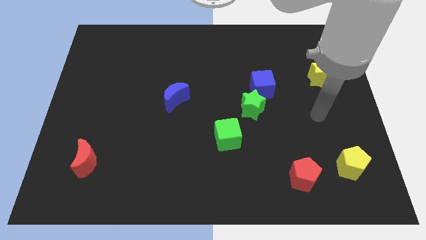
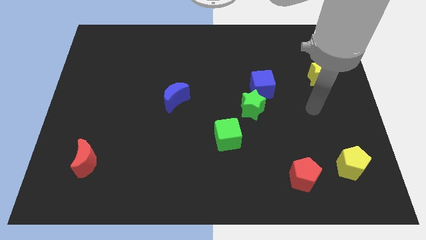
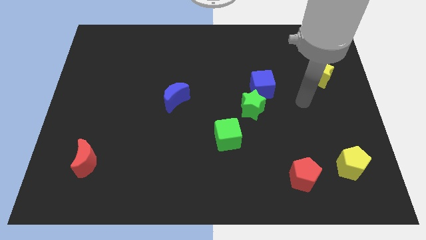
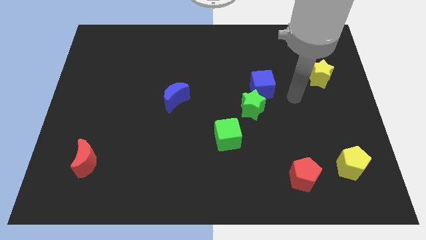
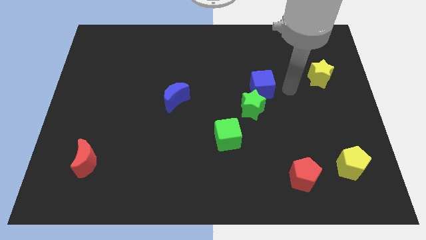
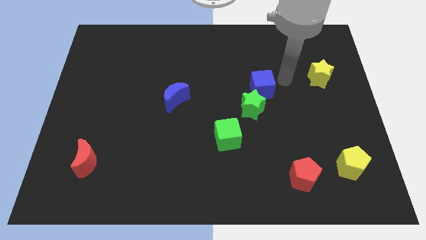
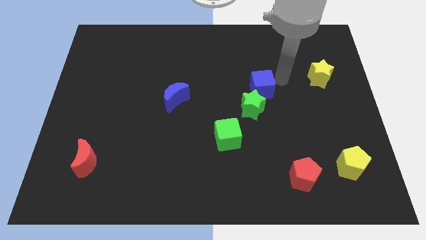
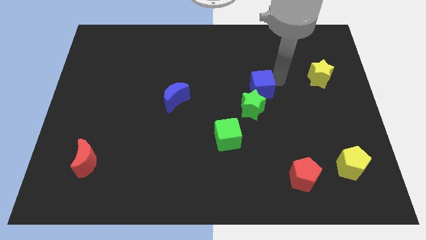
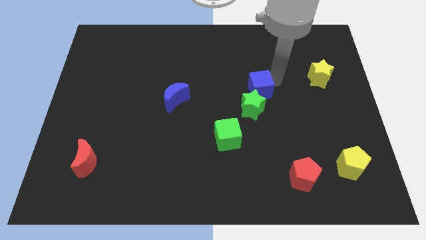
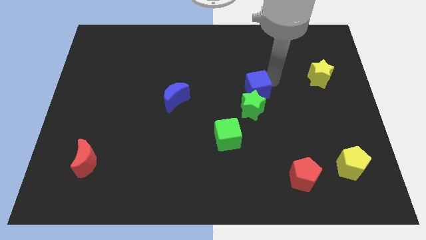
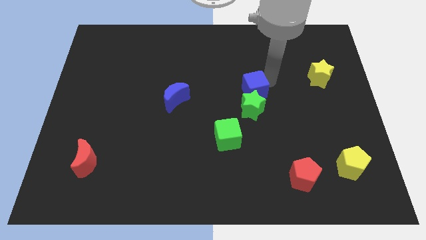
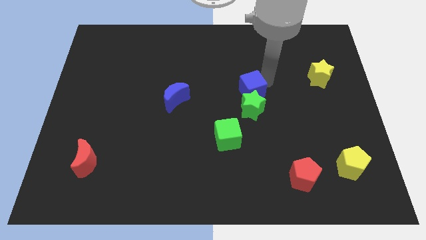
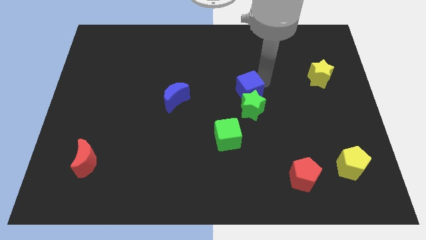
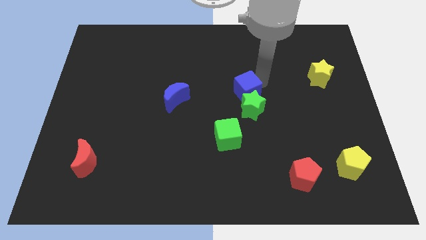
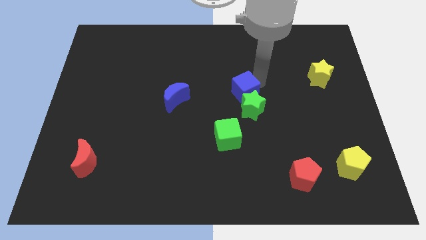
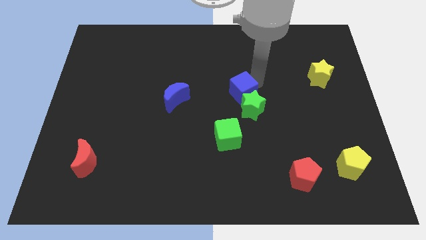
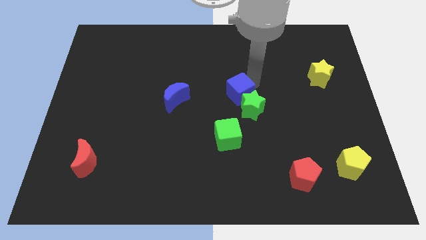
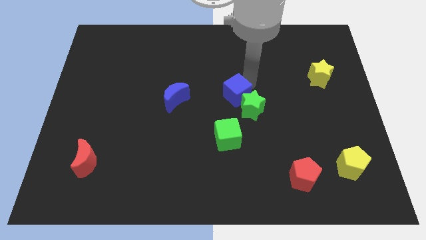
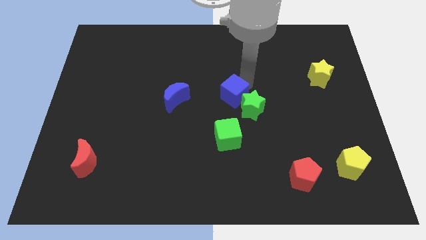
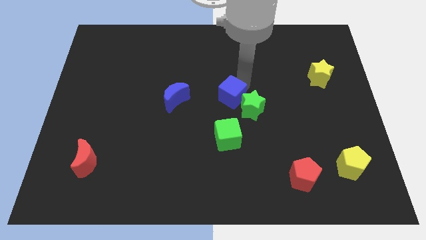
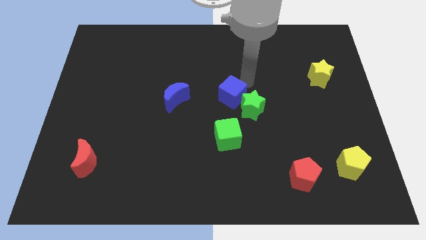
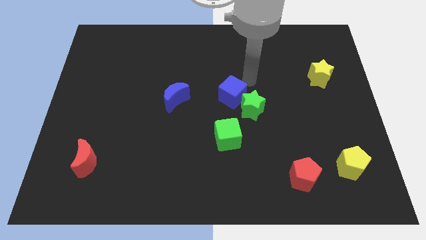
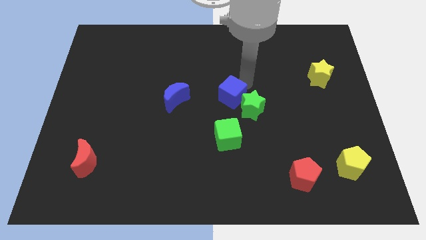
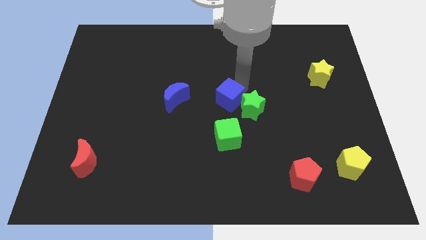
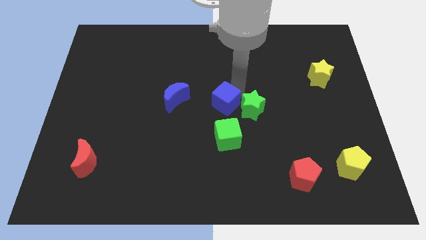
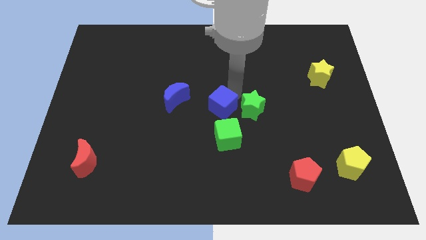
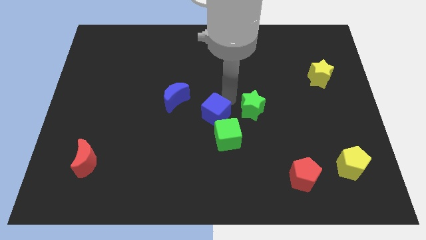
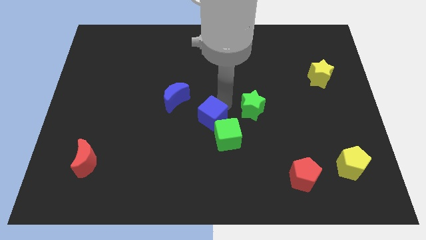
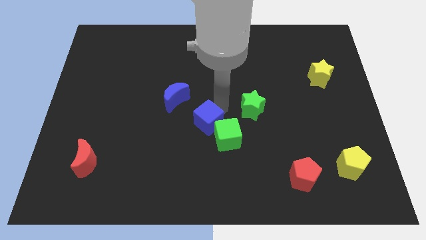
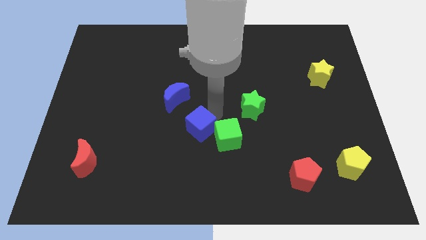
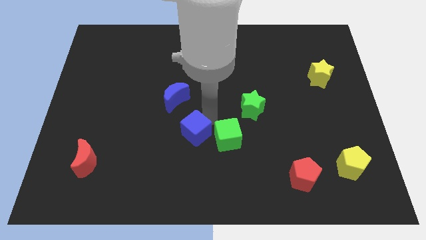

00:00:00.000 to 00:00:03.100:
push the blue cube downwards and to the left diagonally

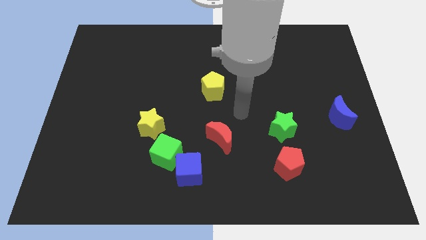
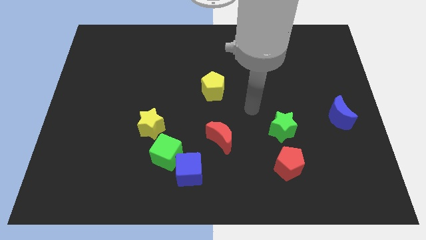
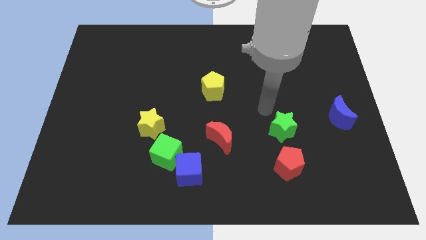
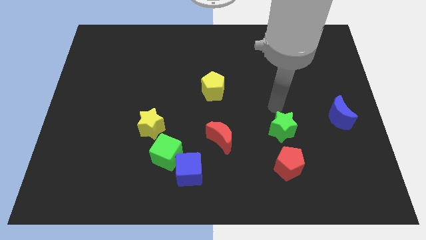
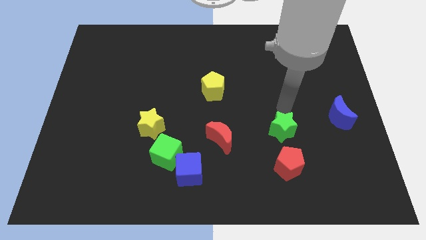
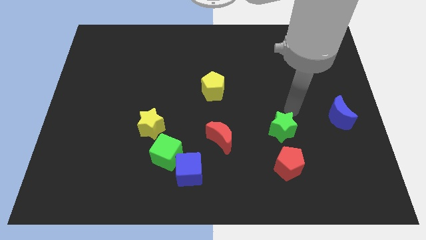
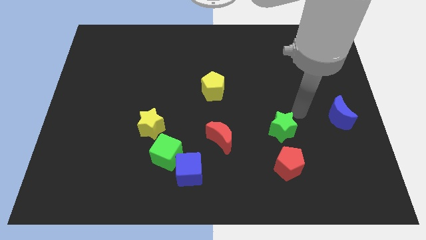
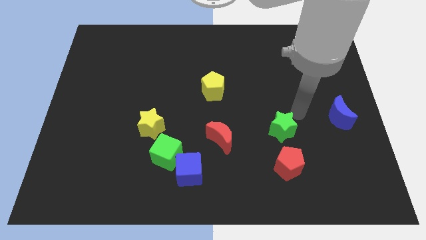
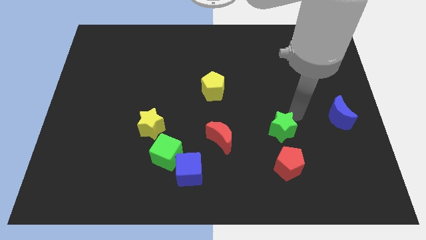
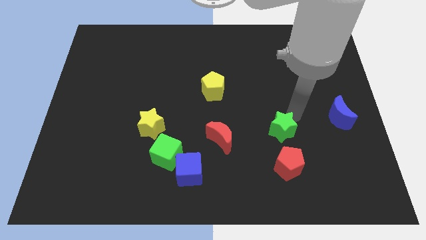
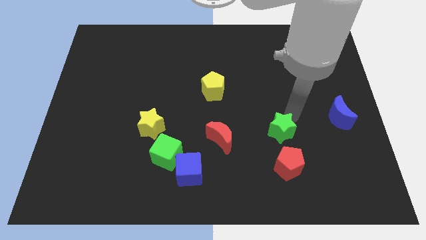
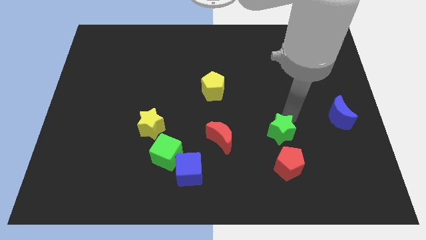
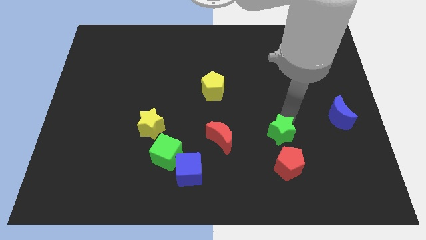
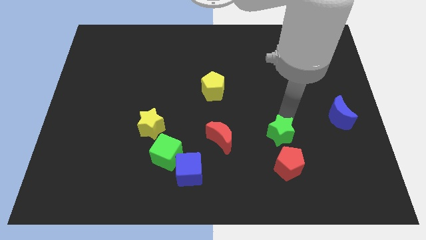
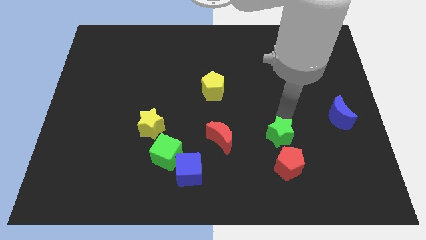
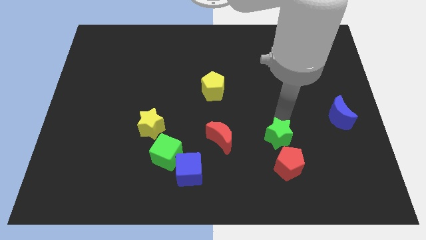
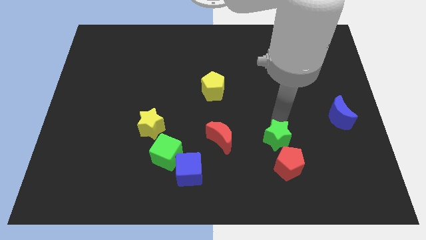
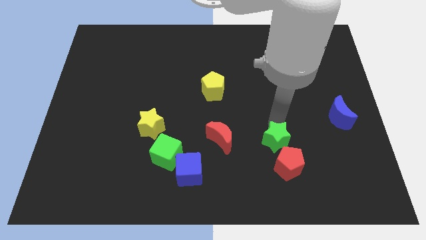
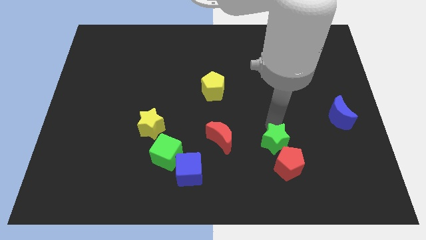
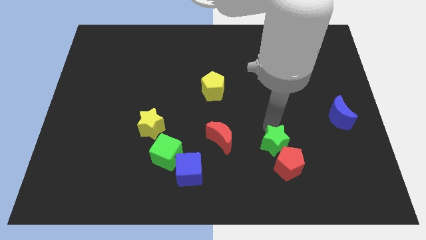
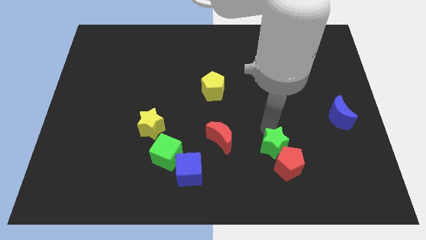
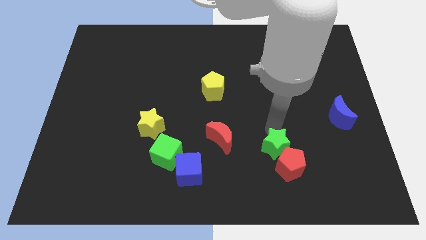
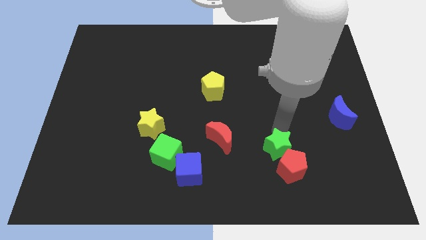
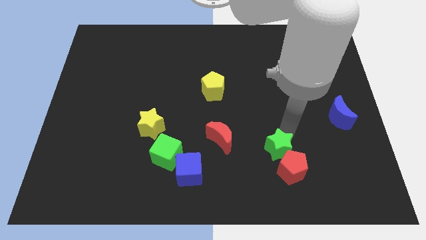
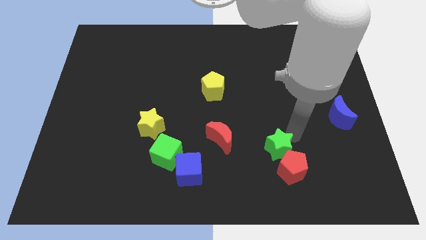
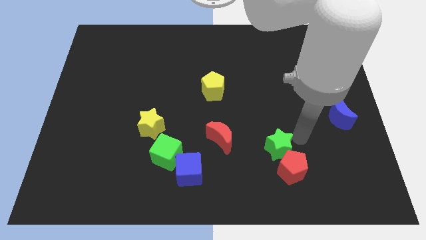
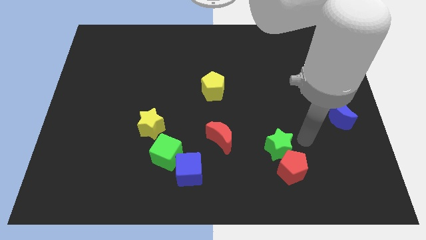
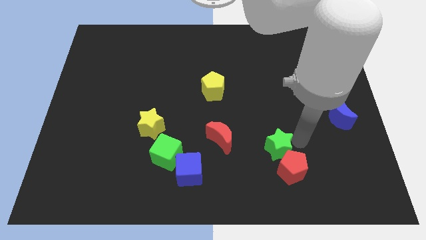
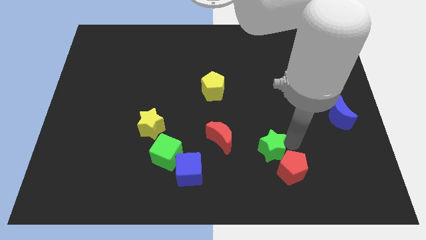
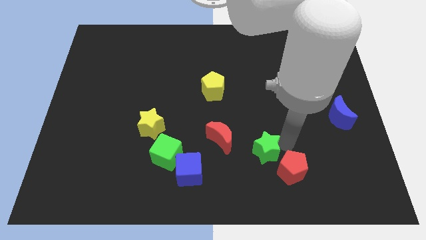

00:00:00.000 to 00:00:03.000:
slightly push the green star down and left

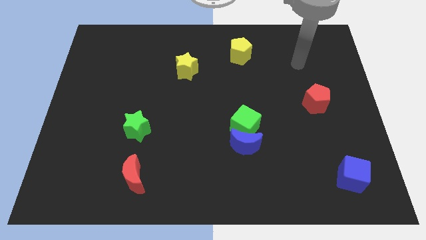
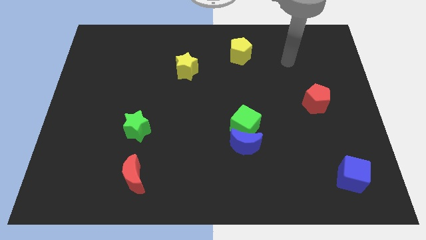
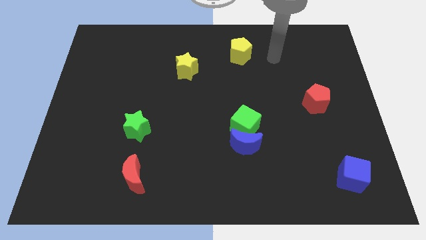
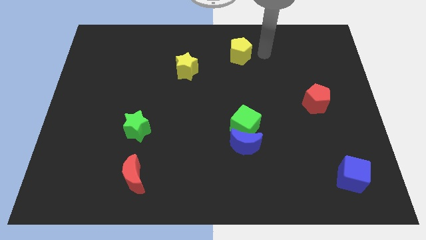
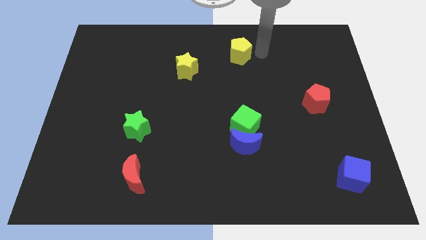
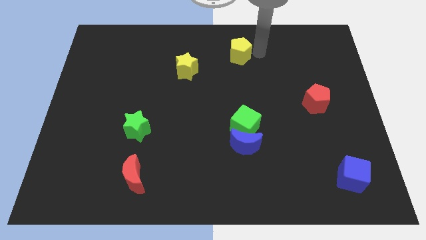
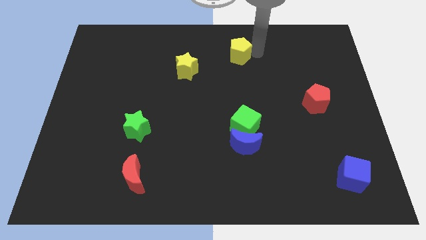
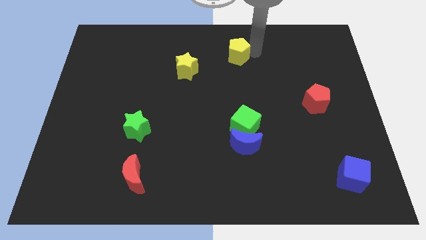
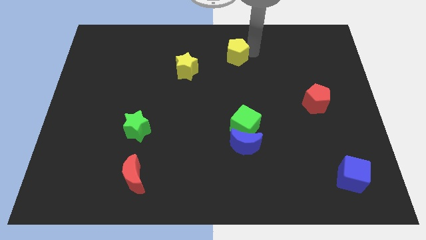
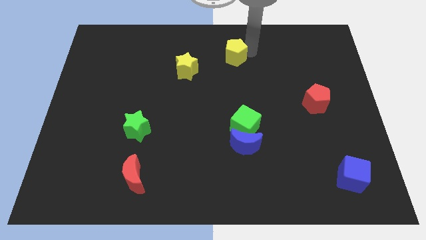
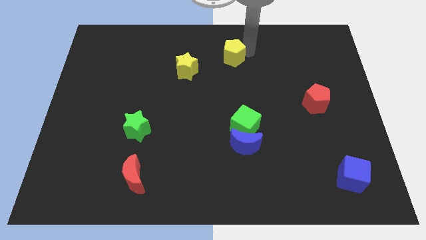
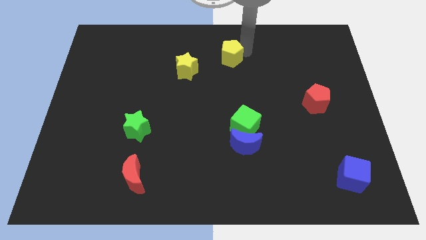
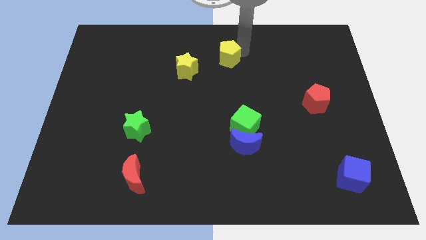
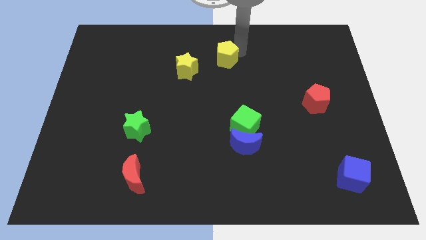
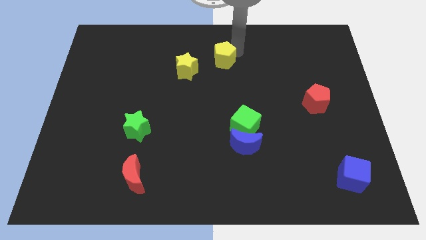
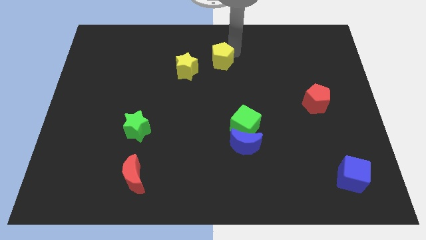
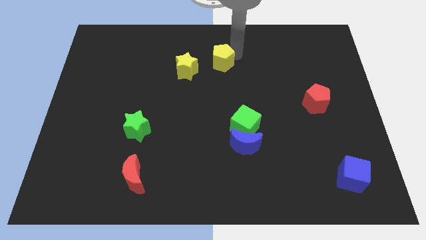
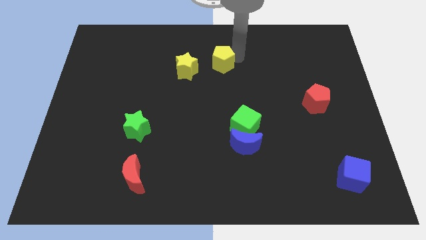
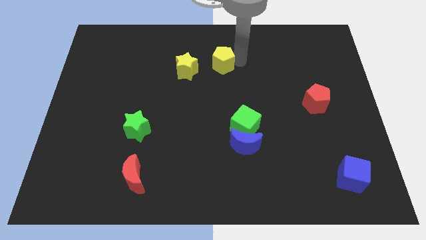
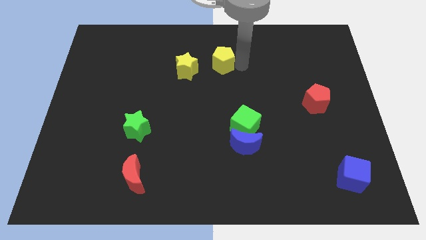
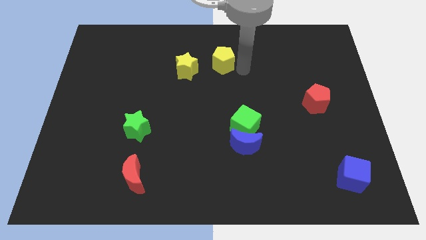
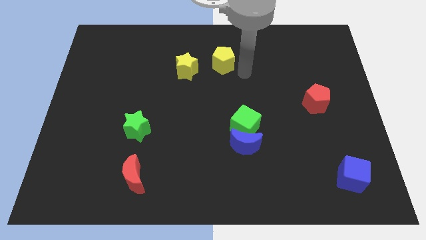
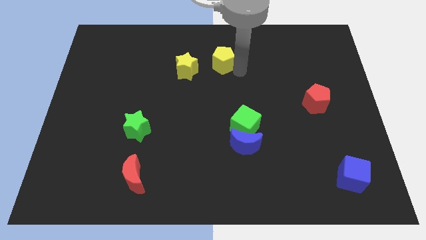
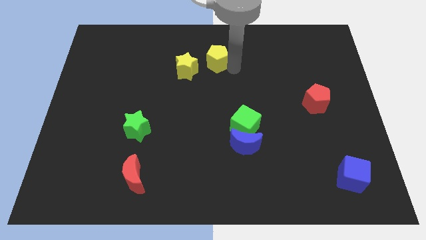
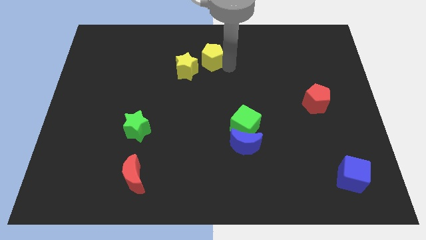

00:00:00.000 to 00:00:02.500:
move the yellow pentagon a little bit to the left
